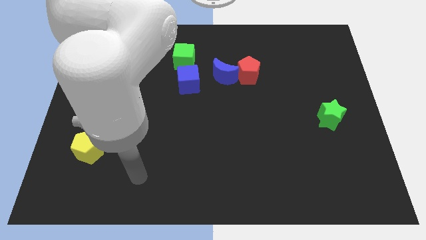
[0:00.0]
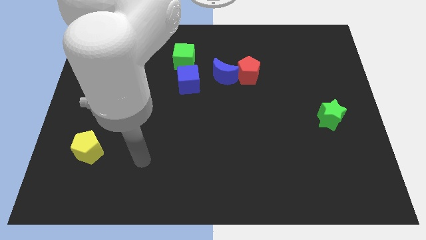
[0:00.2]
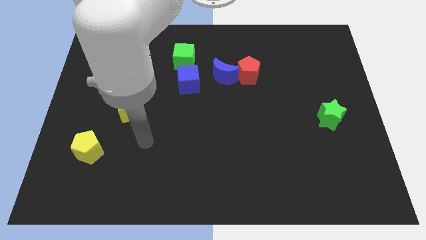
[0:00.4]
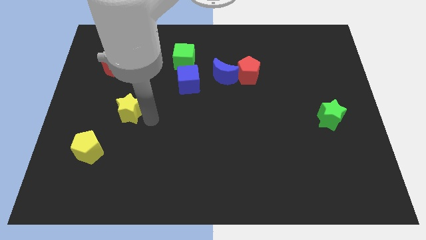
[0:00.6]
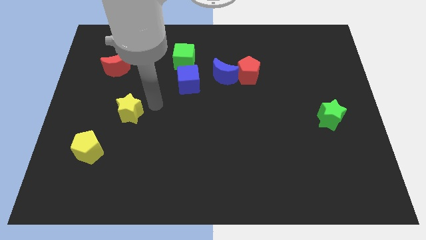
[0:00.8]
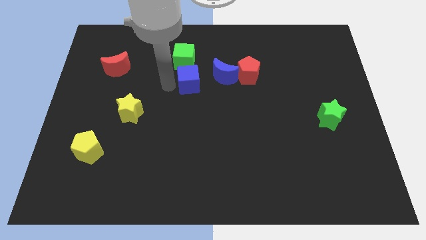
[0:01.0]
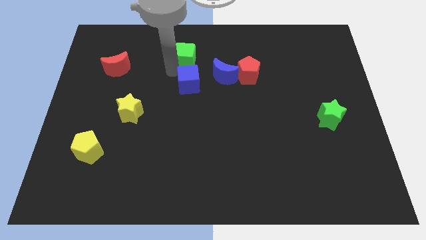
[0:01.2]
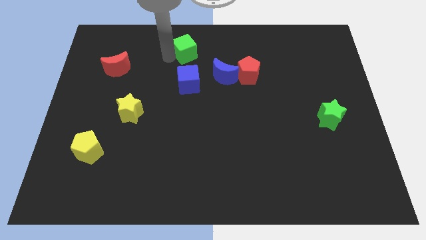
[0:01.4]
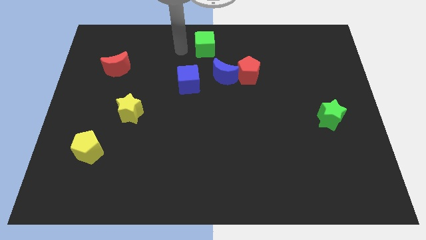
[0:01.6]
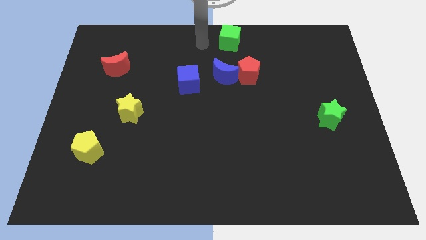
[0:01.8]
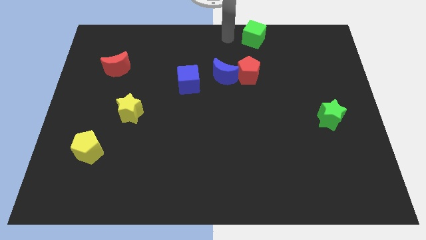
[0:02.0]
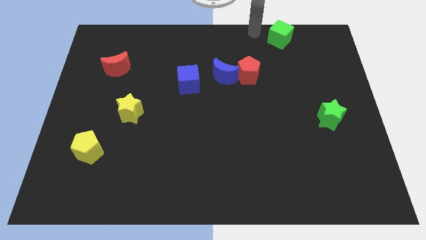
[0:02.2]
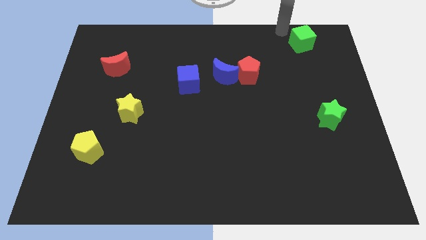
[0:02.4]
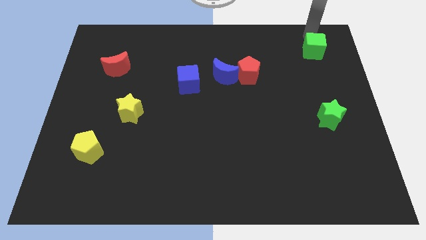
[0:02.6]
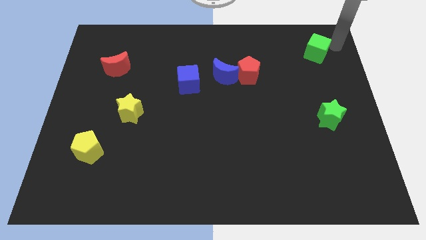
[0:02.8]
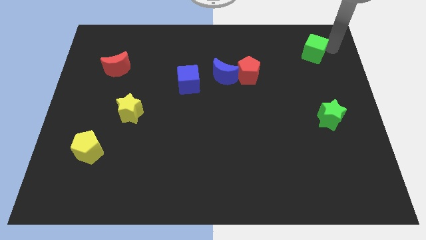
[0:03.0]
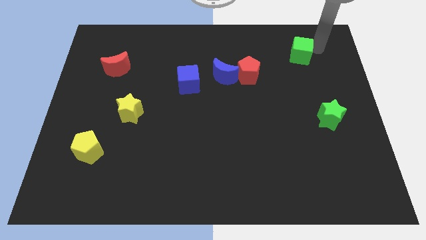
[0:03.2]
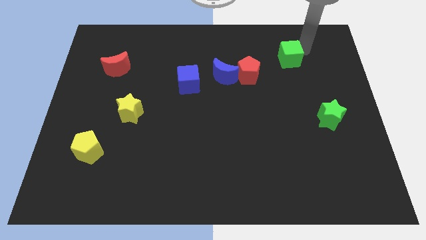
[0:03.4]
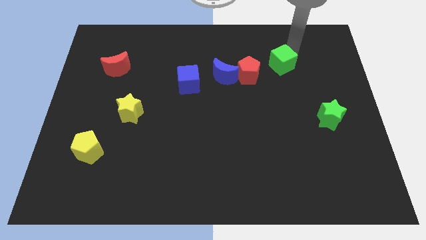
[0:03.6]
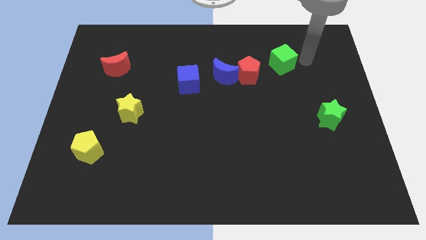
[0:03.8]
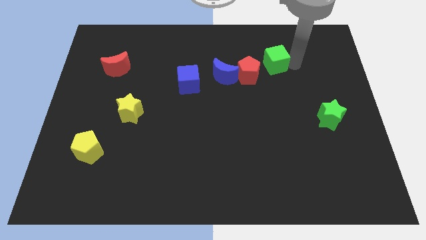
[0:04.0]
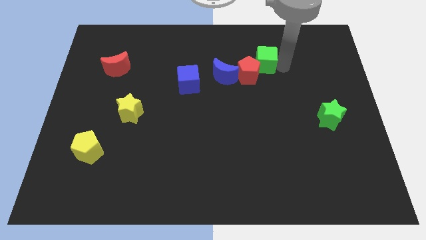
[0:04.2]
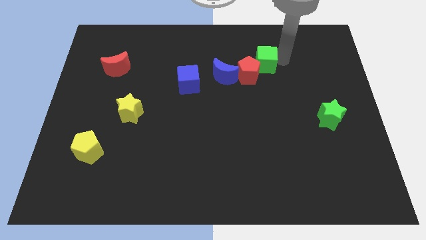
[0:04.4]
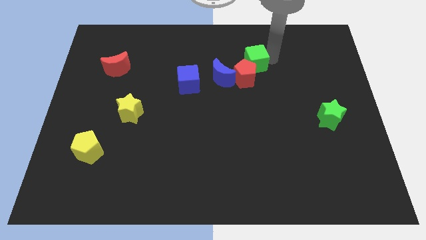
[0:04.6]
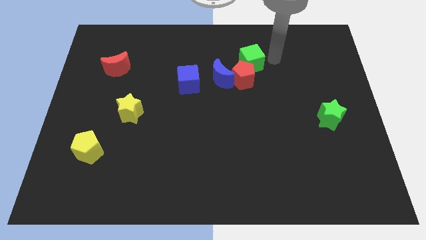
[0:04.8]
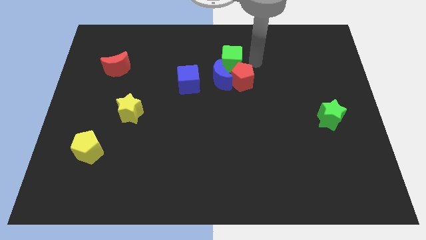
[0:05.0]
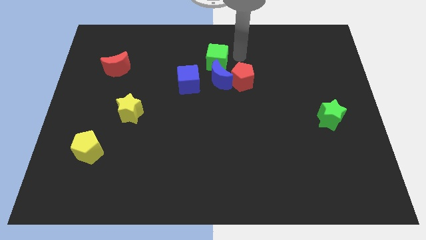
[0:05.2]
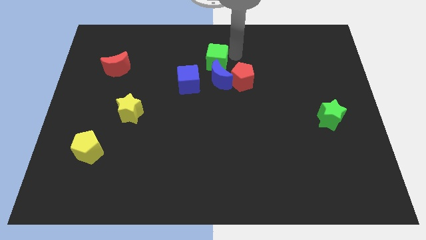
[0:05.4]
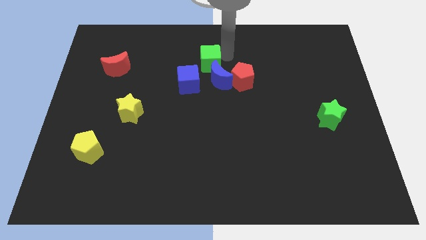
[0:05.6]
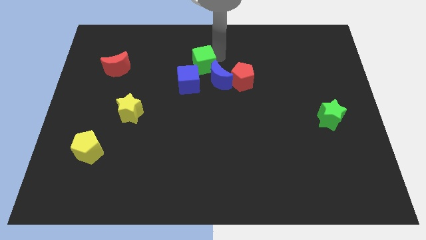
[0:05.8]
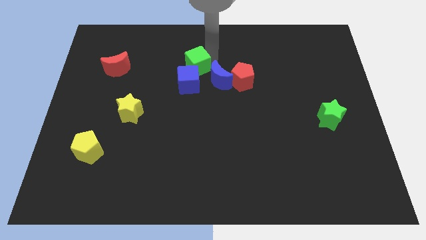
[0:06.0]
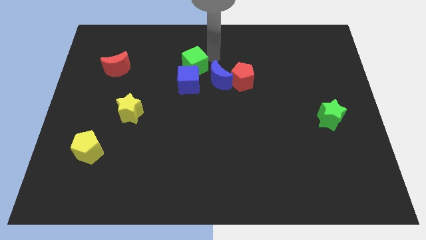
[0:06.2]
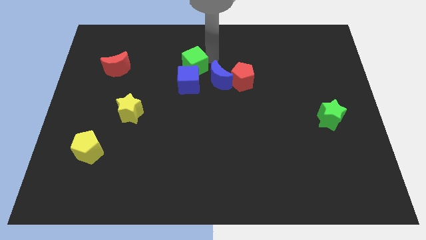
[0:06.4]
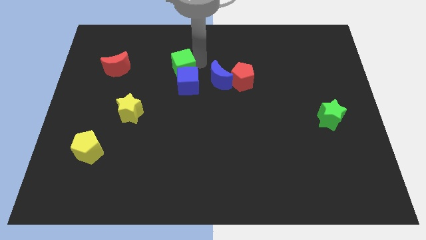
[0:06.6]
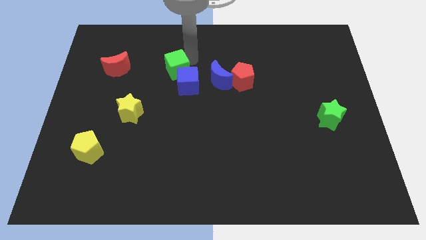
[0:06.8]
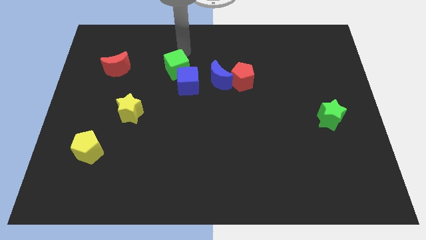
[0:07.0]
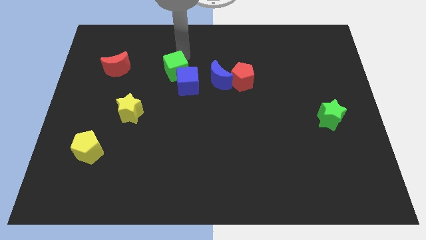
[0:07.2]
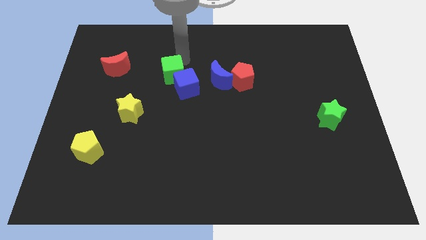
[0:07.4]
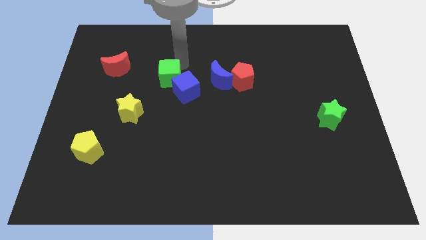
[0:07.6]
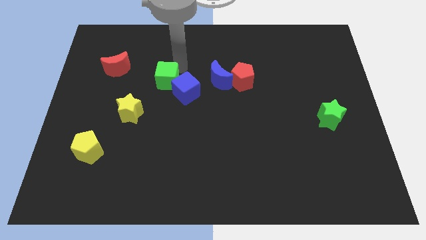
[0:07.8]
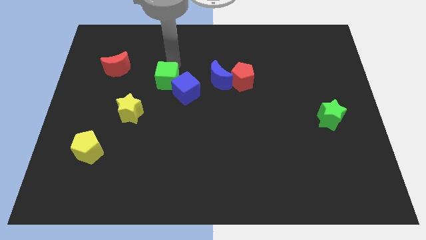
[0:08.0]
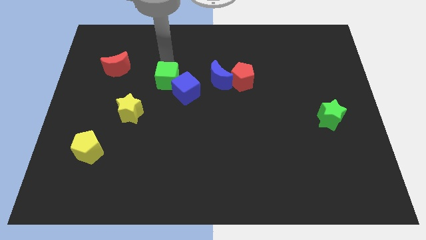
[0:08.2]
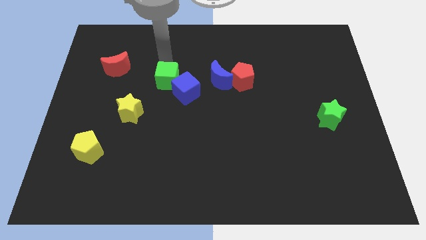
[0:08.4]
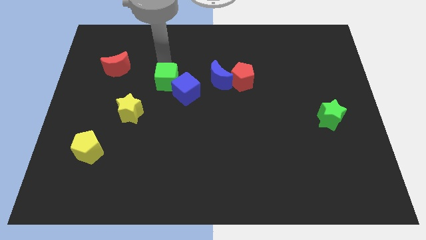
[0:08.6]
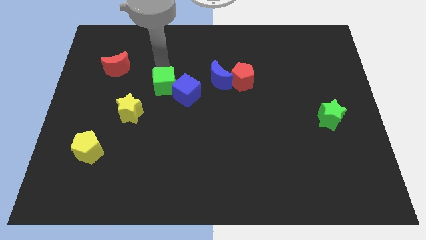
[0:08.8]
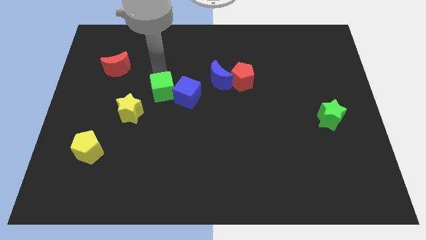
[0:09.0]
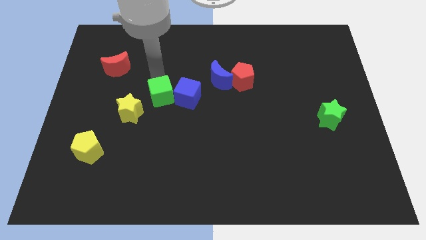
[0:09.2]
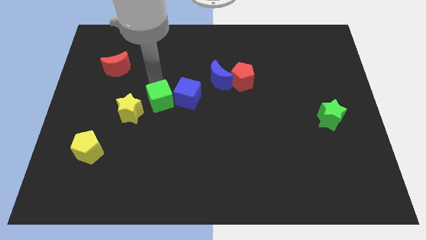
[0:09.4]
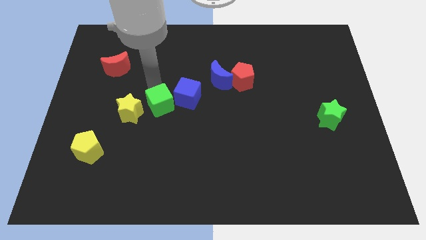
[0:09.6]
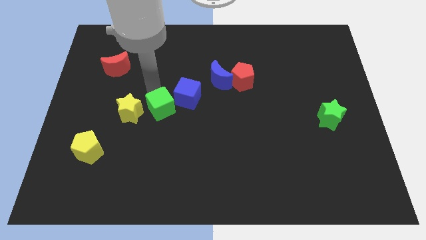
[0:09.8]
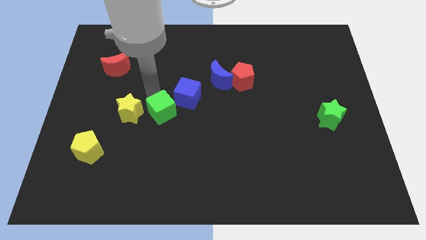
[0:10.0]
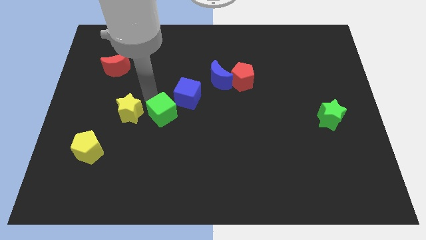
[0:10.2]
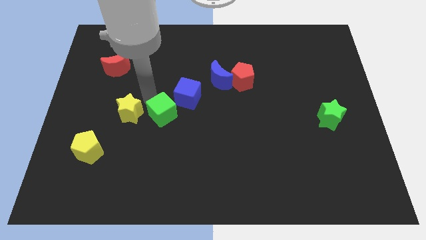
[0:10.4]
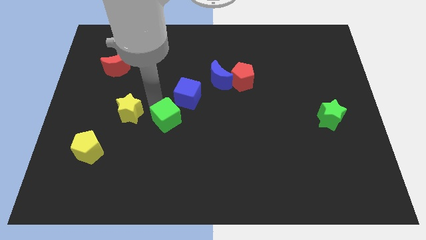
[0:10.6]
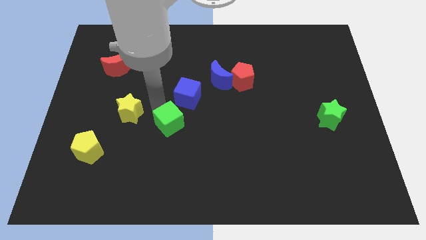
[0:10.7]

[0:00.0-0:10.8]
slide the green cube down

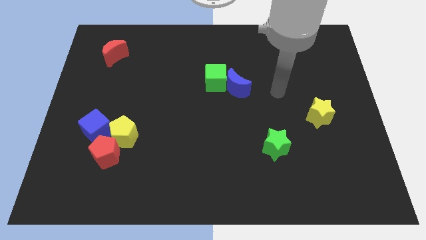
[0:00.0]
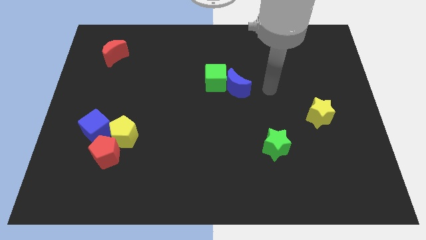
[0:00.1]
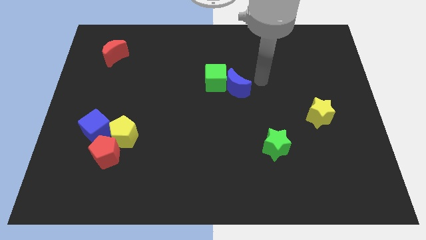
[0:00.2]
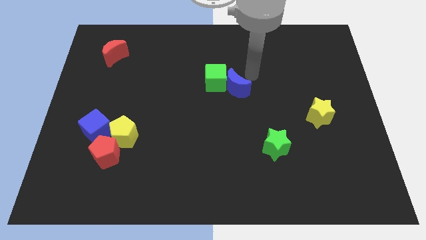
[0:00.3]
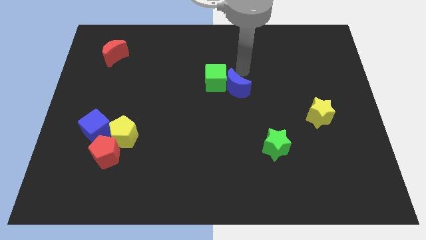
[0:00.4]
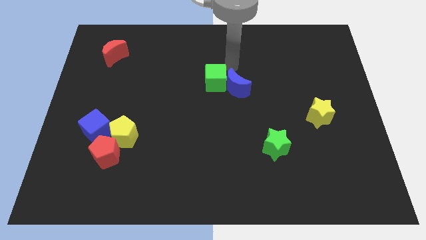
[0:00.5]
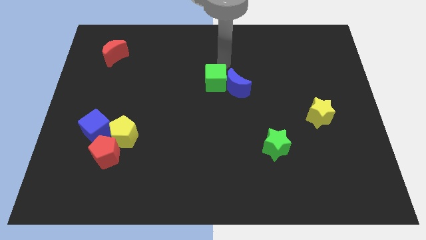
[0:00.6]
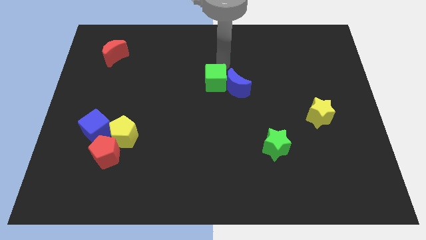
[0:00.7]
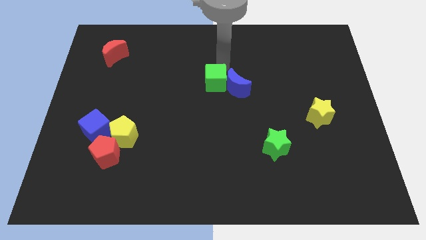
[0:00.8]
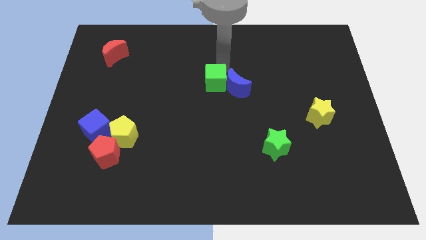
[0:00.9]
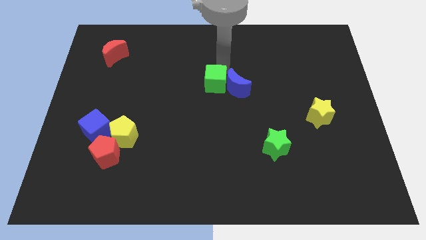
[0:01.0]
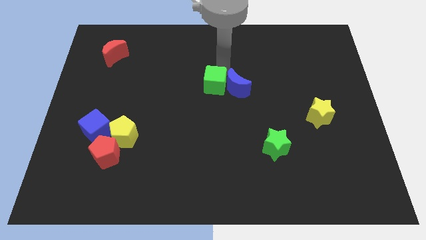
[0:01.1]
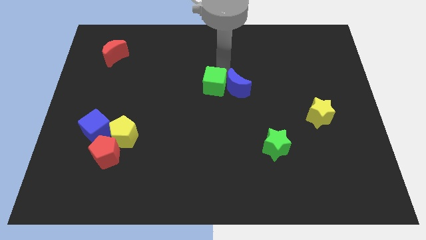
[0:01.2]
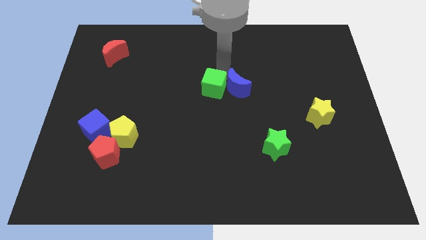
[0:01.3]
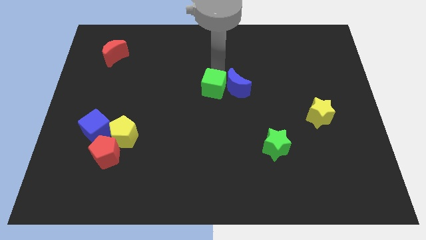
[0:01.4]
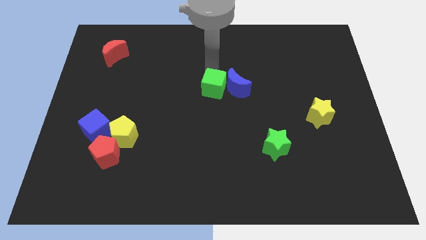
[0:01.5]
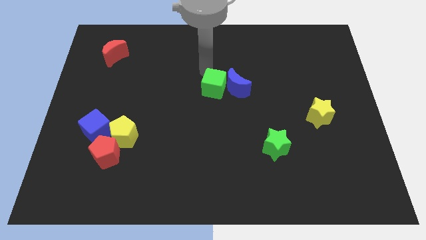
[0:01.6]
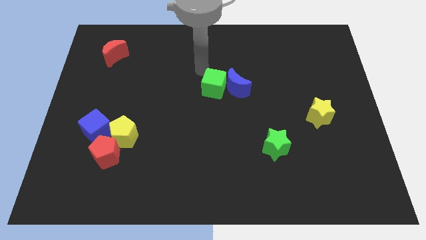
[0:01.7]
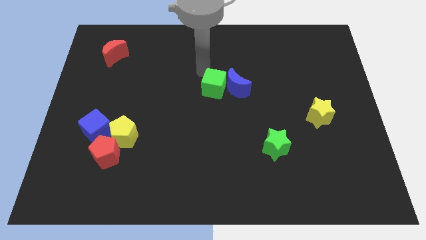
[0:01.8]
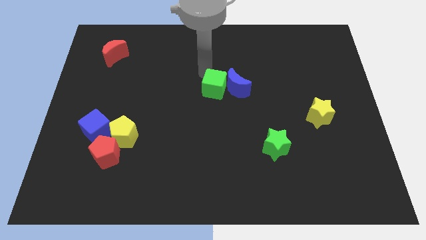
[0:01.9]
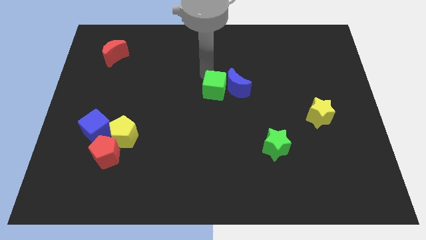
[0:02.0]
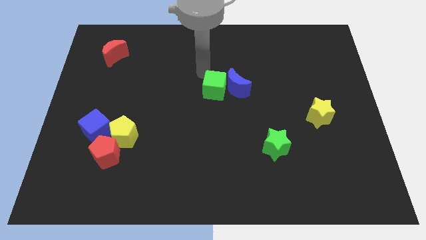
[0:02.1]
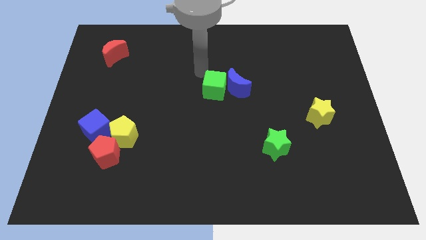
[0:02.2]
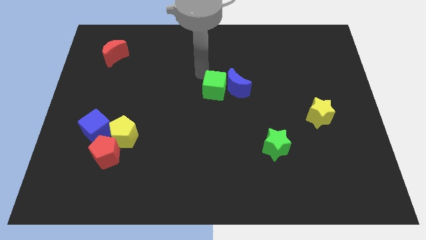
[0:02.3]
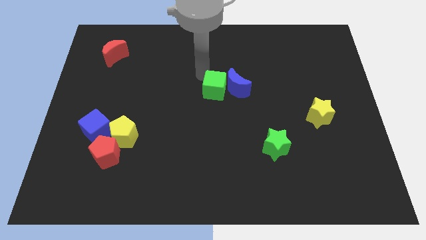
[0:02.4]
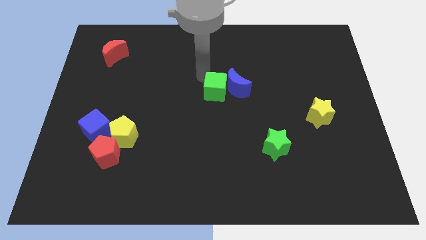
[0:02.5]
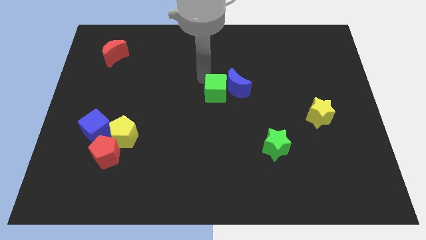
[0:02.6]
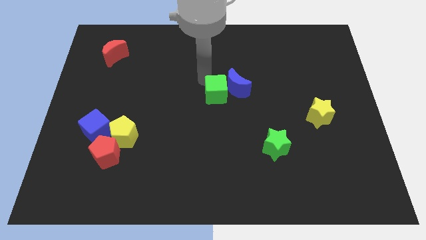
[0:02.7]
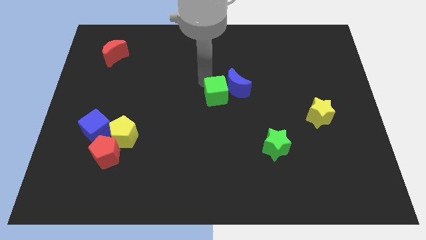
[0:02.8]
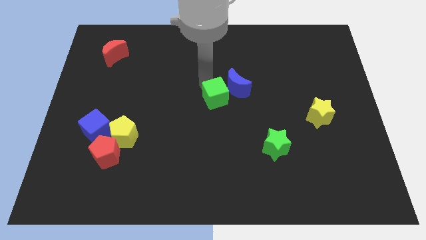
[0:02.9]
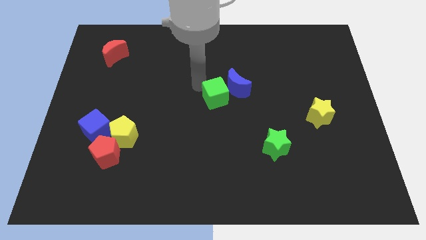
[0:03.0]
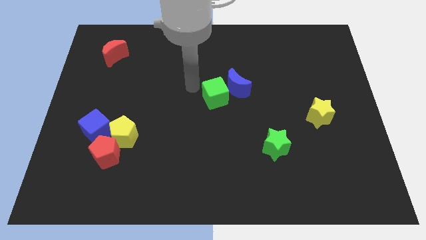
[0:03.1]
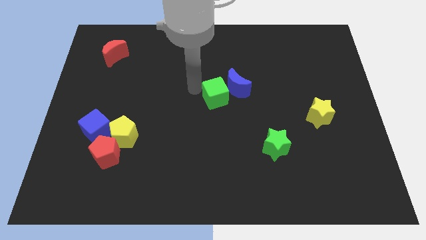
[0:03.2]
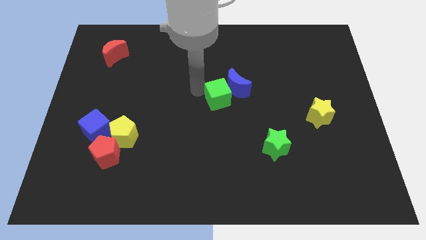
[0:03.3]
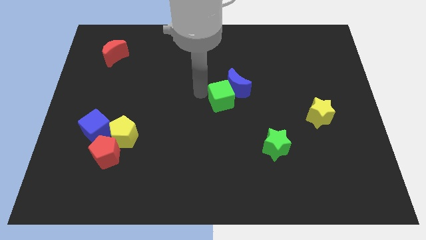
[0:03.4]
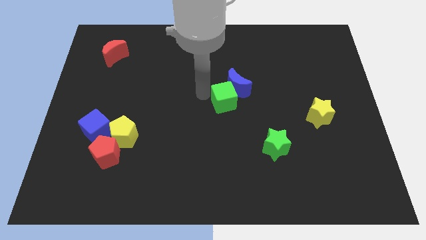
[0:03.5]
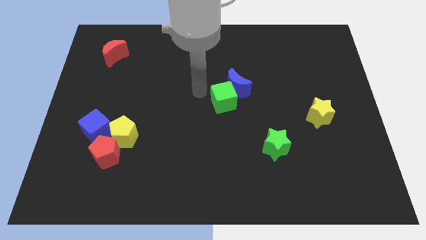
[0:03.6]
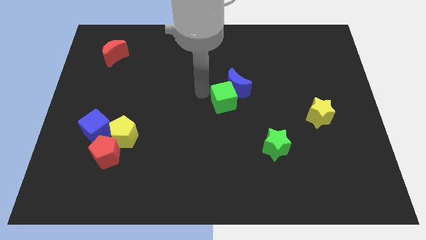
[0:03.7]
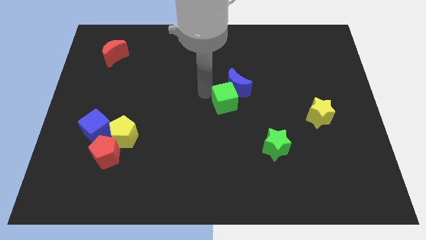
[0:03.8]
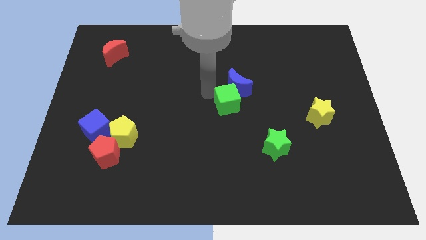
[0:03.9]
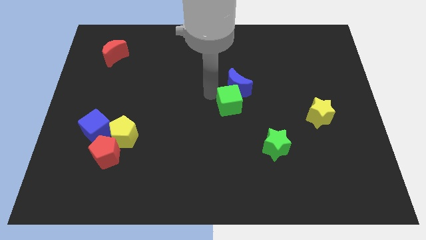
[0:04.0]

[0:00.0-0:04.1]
push the green cube diagonally downwards and right a bit
